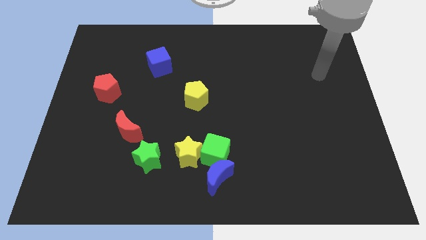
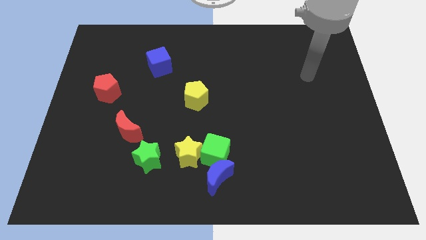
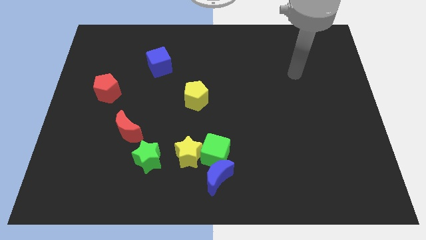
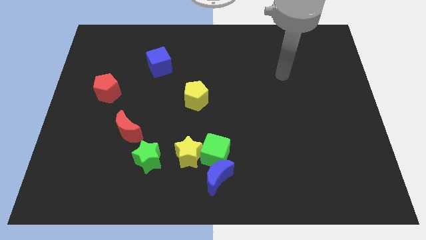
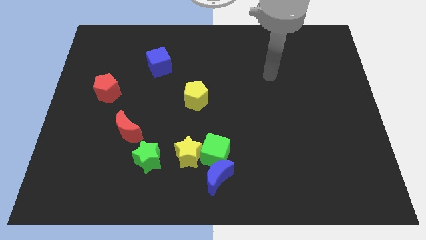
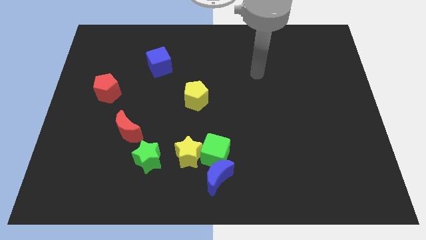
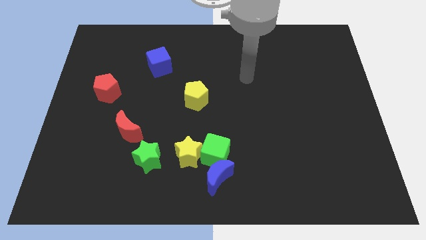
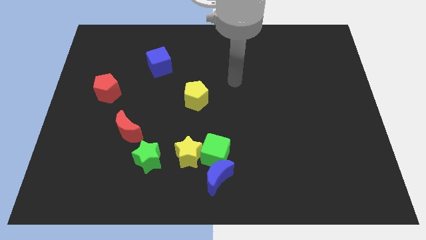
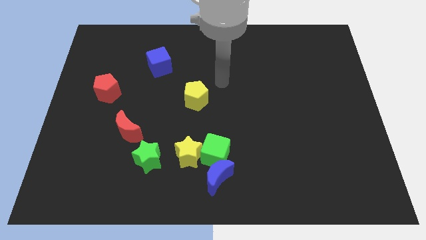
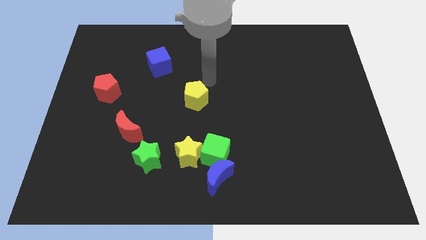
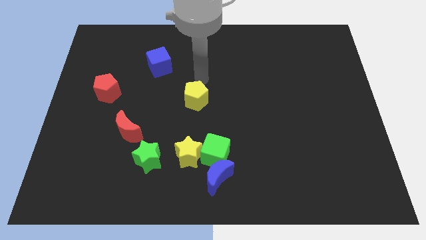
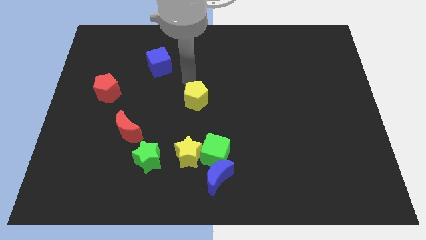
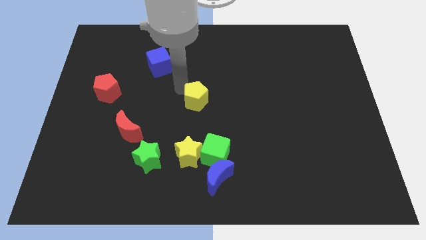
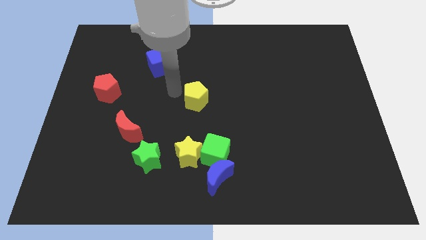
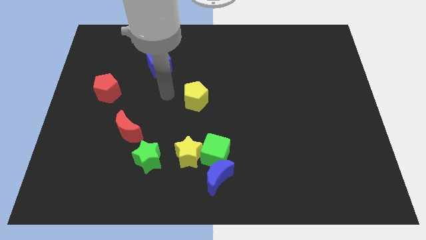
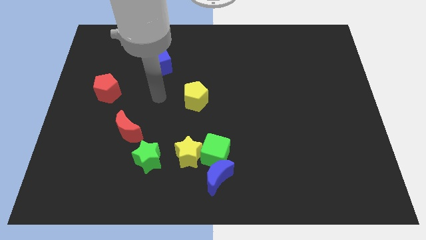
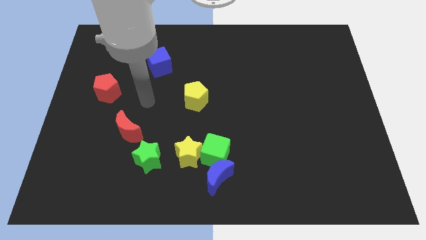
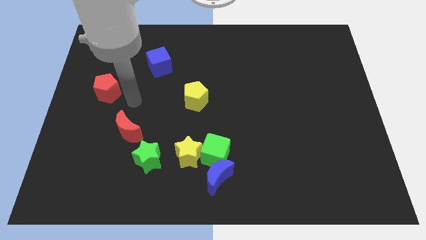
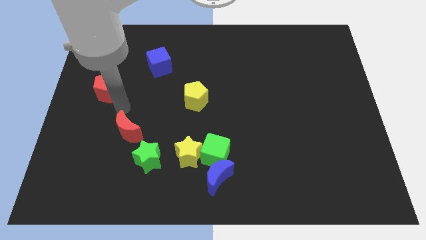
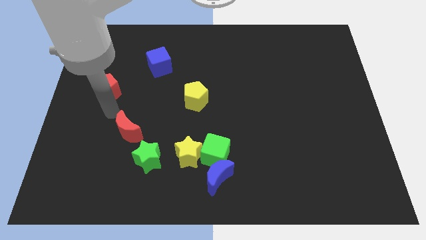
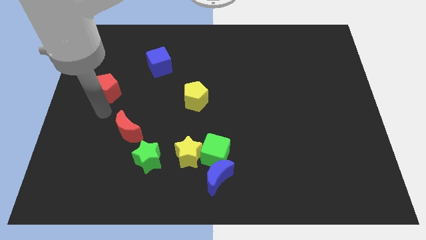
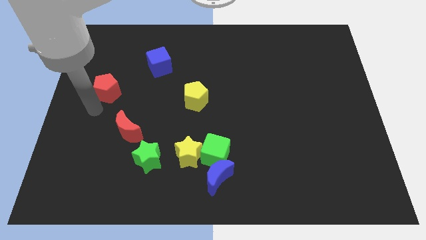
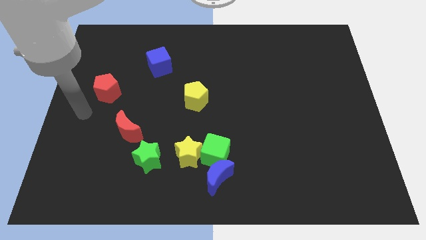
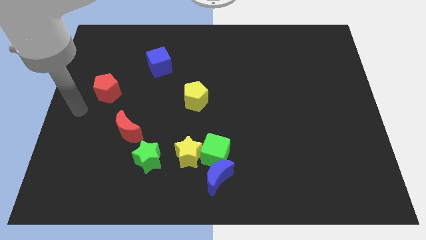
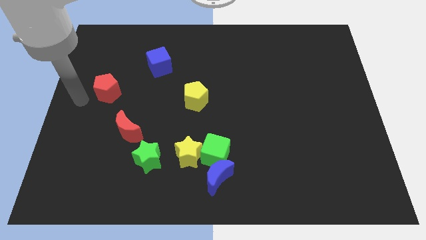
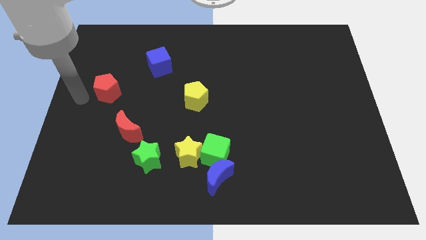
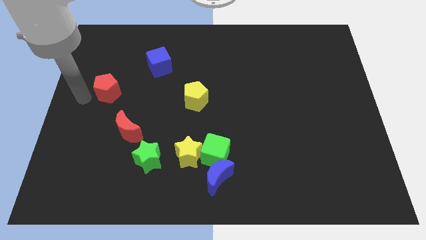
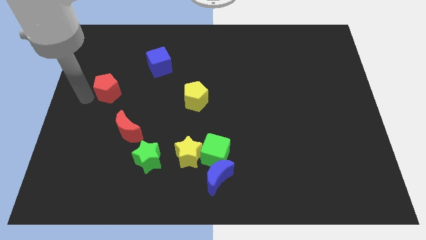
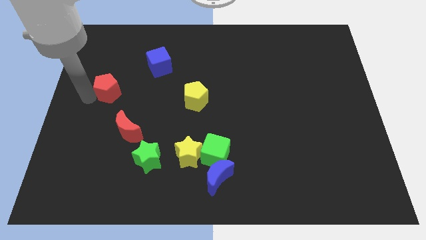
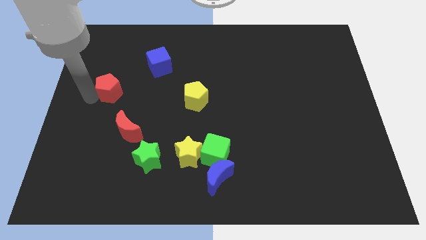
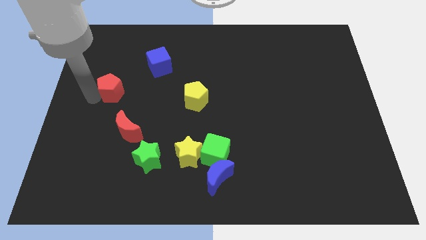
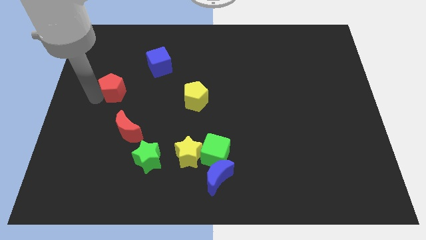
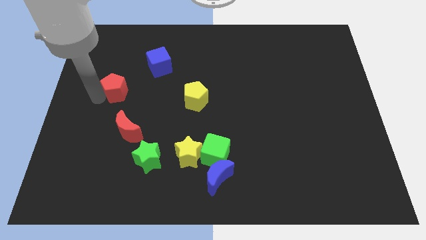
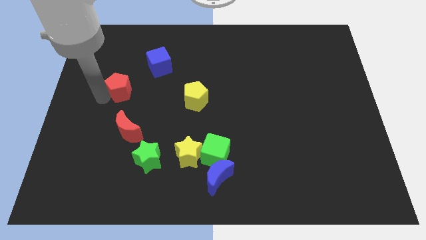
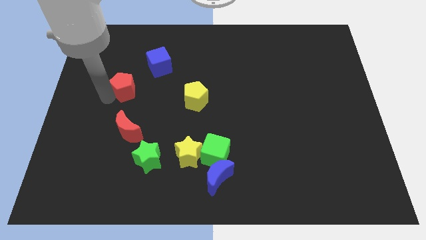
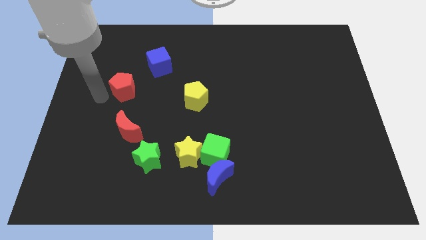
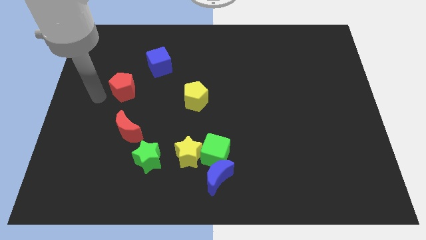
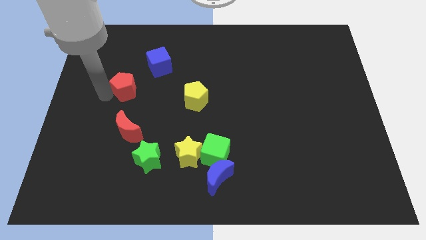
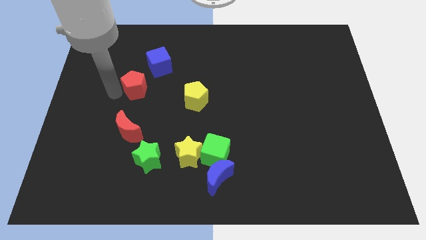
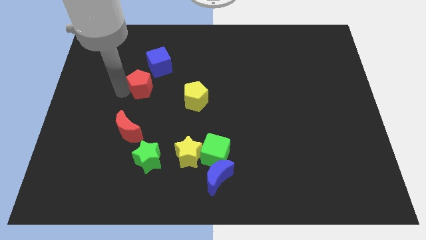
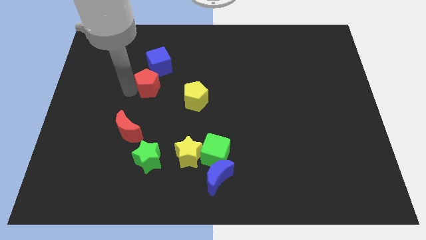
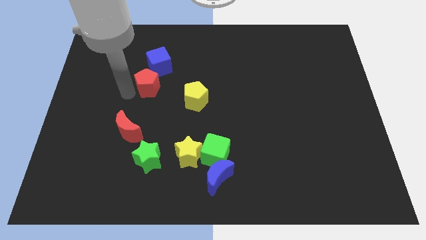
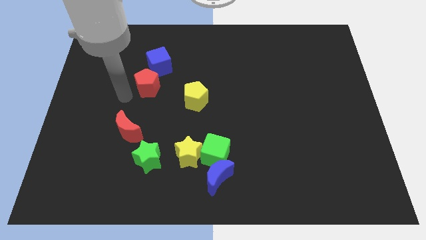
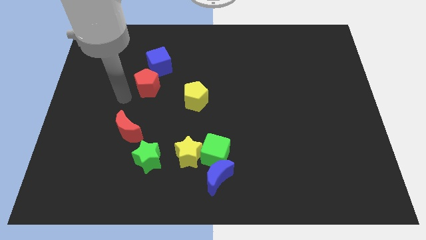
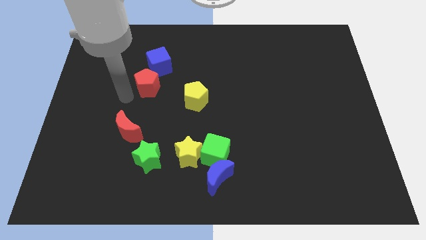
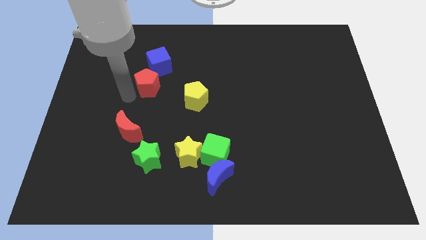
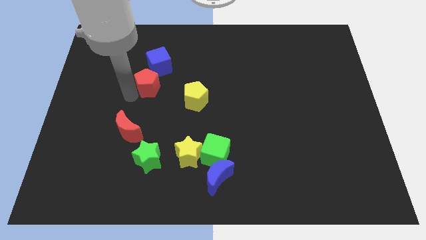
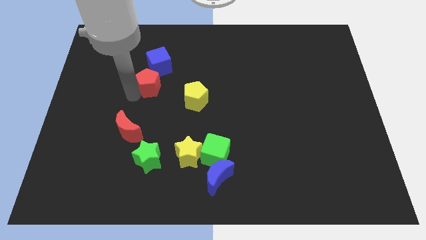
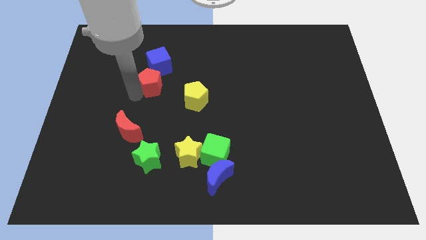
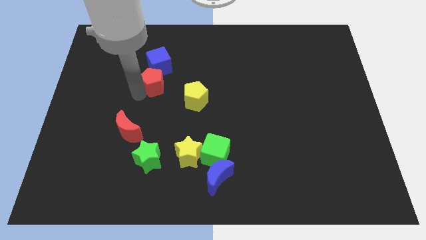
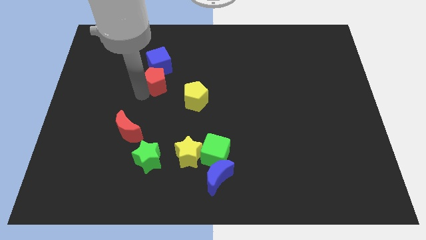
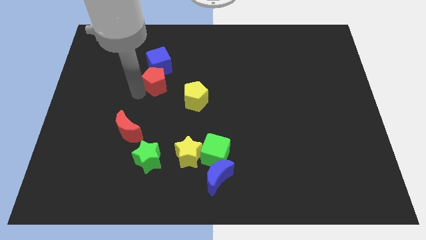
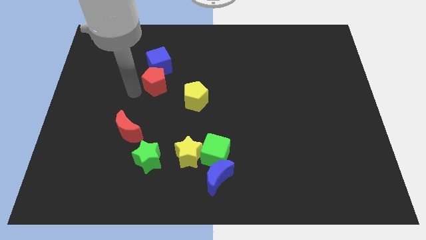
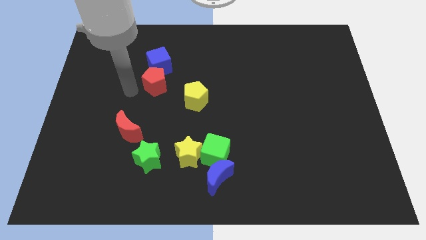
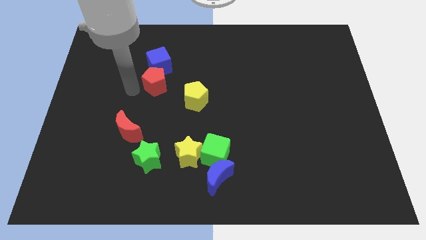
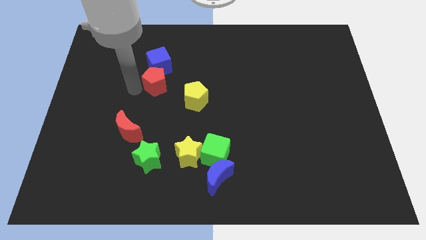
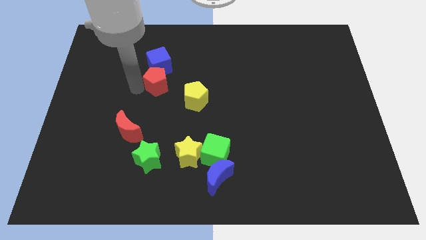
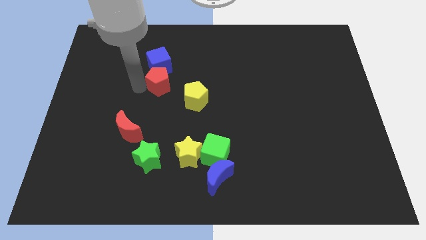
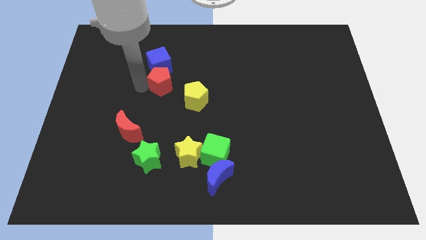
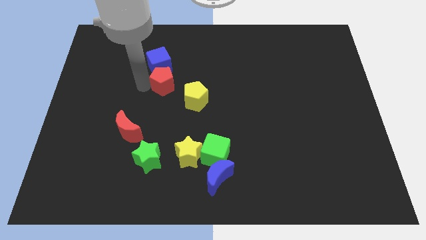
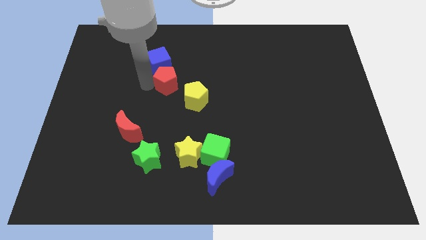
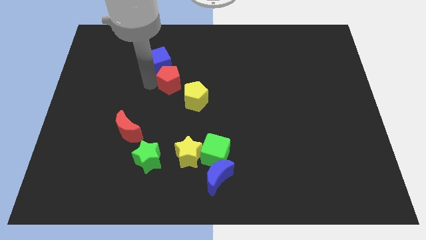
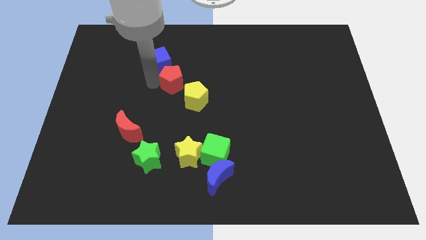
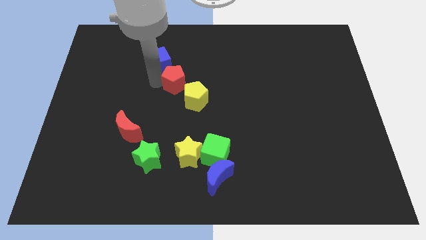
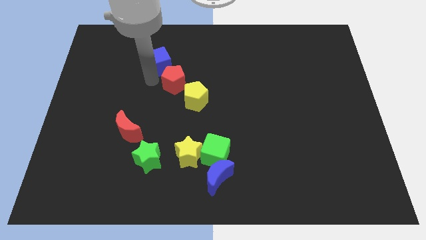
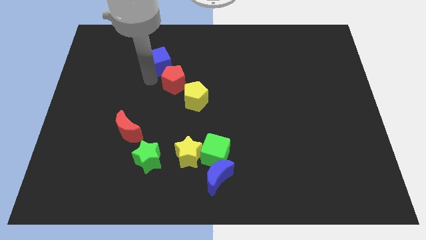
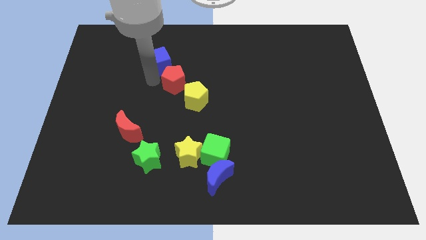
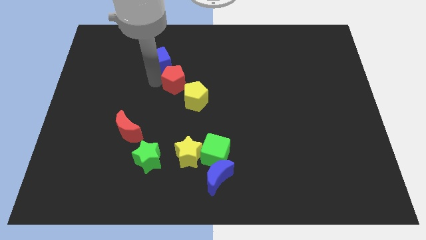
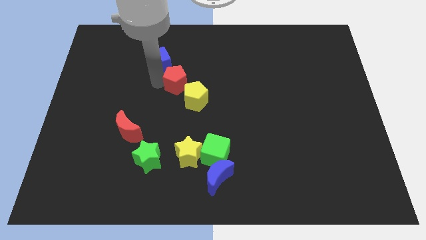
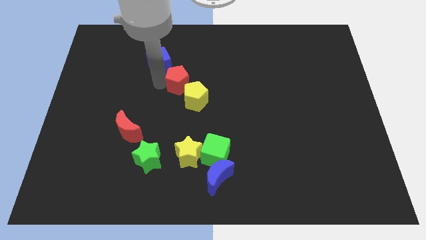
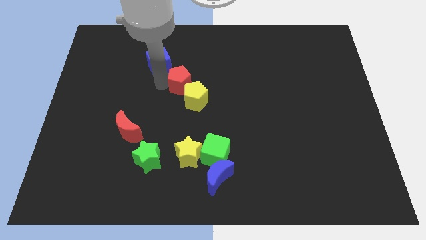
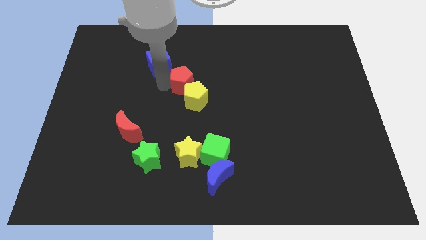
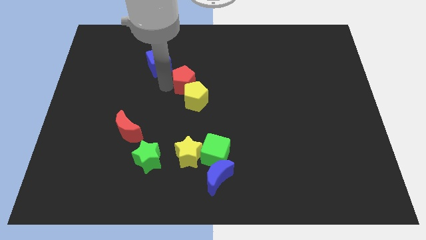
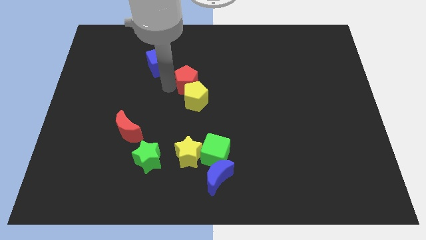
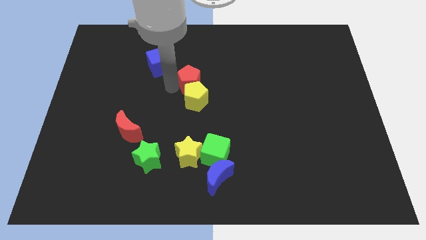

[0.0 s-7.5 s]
push the red pentagon right

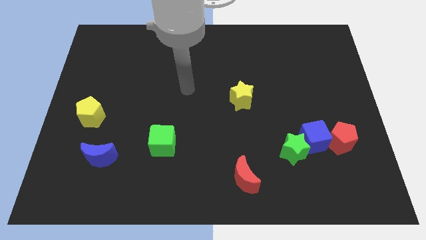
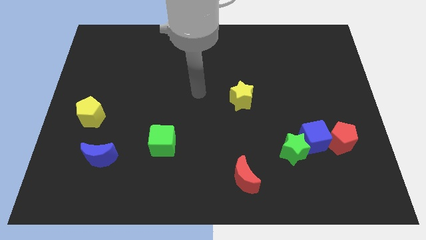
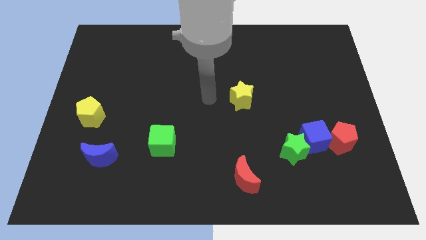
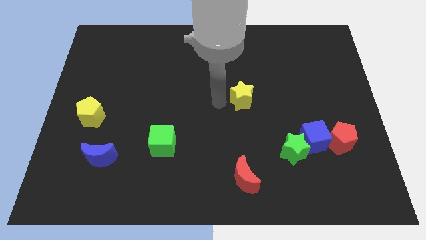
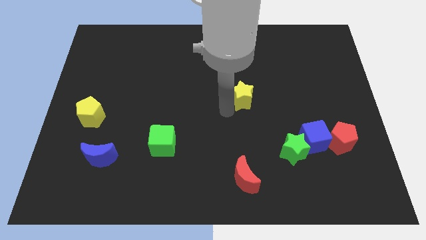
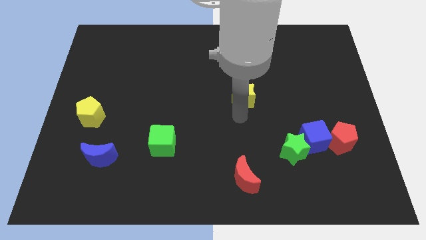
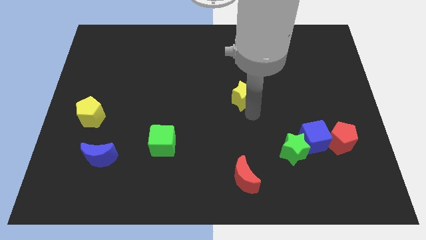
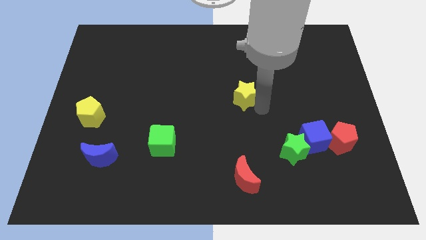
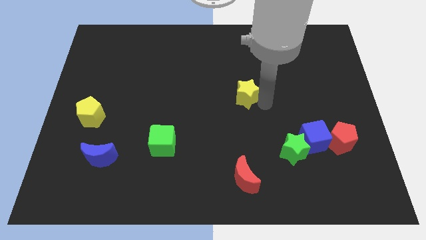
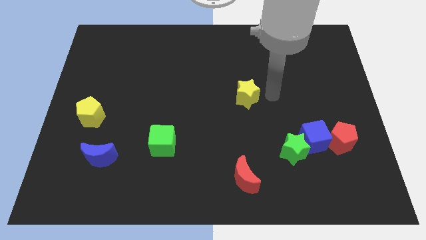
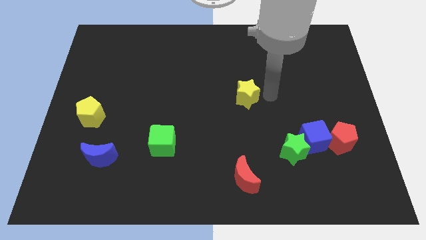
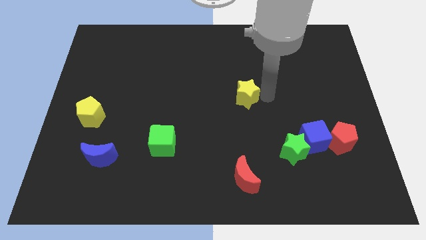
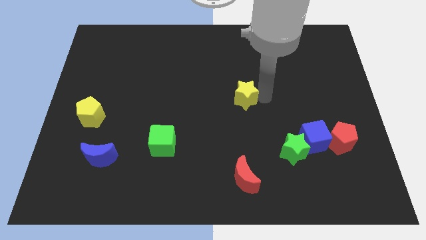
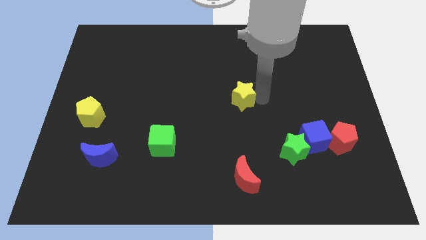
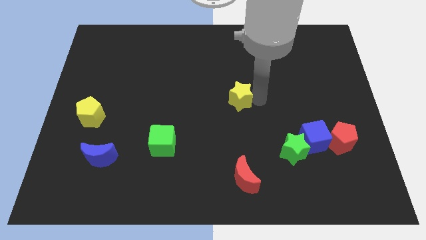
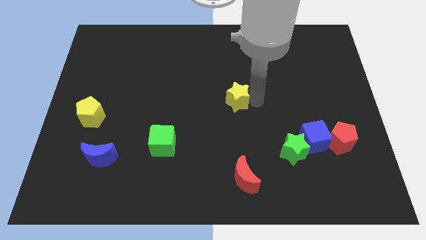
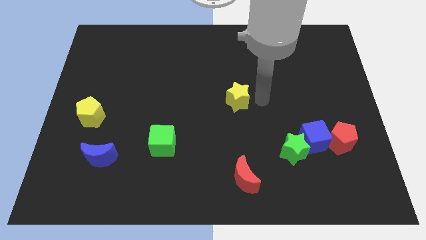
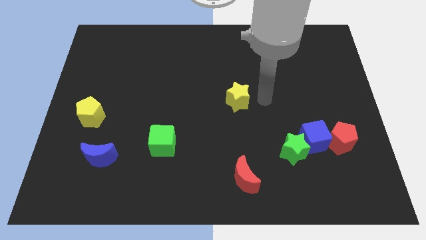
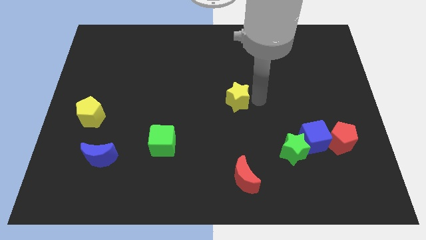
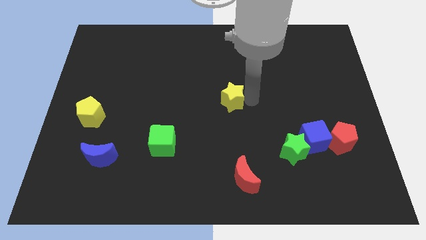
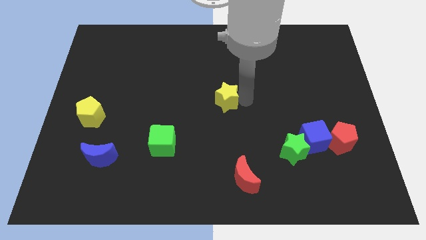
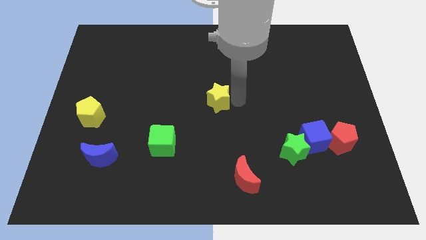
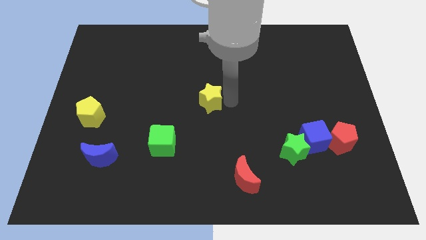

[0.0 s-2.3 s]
slightly push the yellow star to the left
